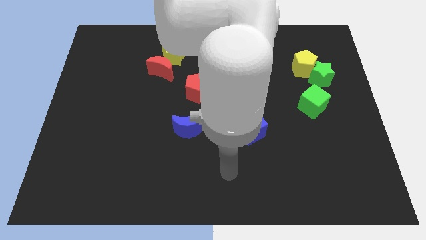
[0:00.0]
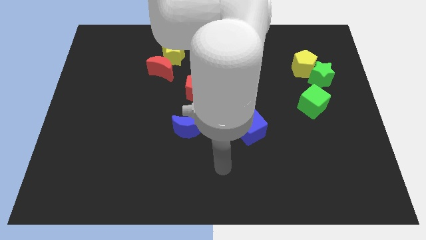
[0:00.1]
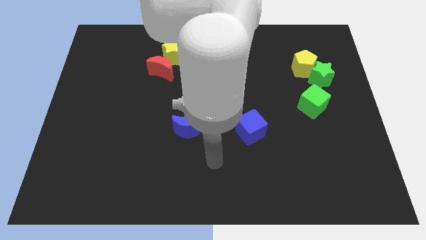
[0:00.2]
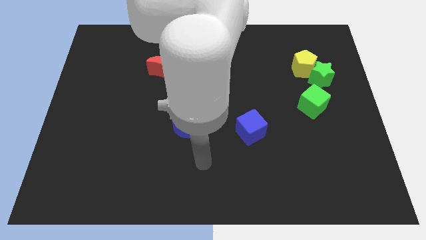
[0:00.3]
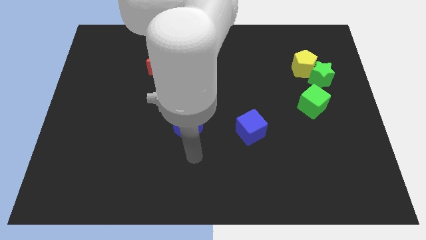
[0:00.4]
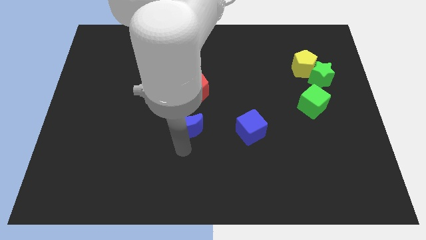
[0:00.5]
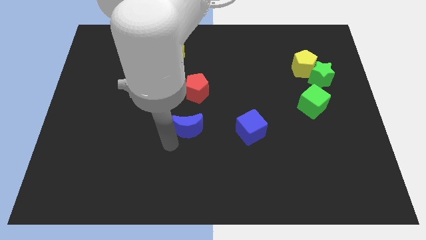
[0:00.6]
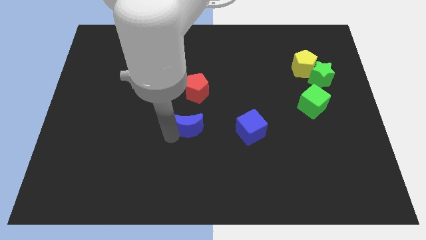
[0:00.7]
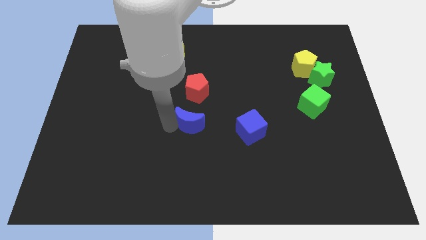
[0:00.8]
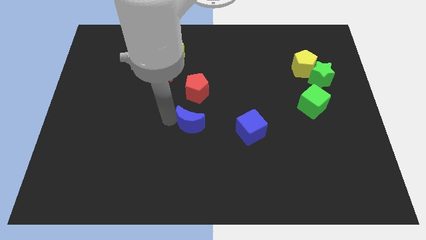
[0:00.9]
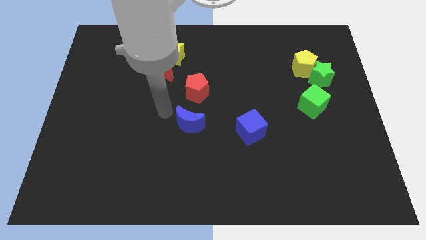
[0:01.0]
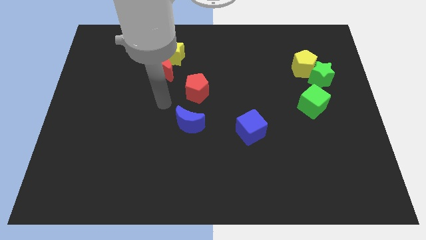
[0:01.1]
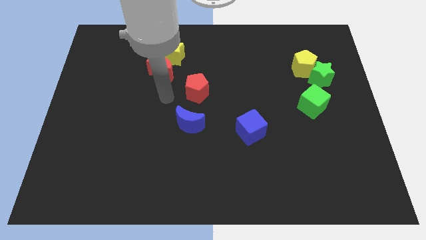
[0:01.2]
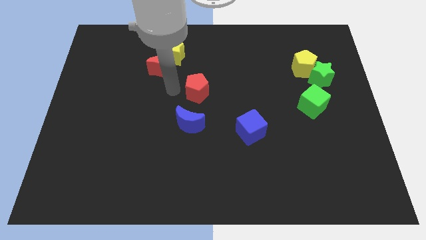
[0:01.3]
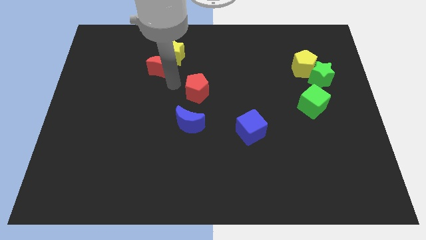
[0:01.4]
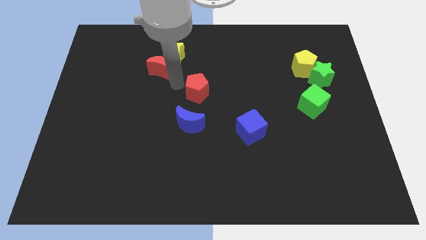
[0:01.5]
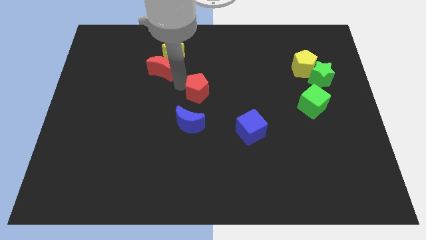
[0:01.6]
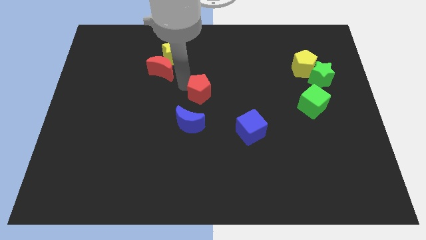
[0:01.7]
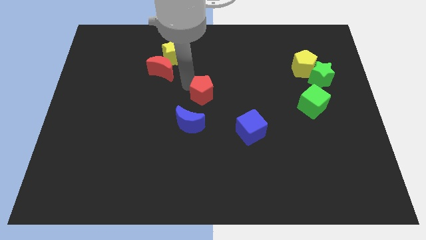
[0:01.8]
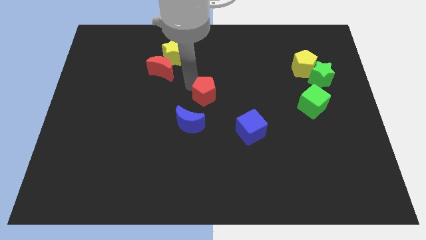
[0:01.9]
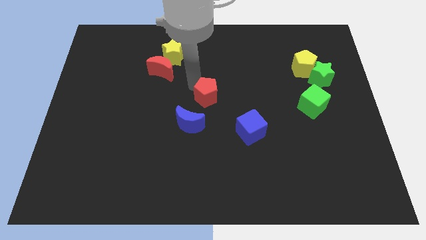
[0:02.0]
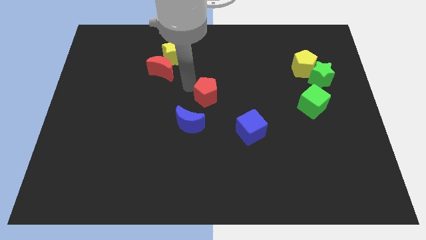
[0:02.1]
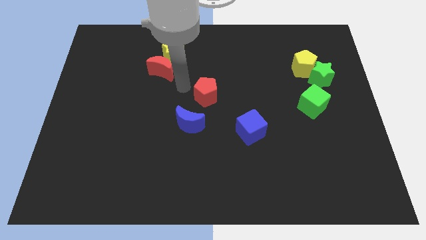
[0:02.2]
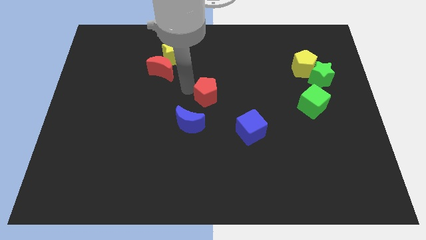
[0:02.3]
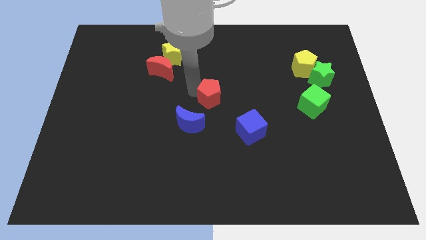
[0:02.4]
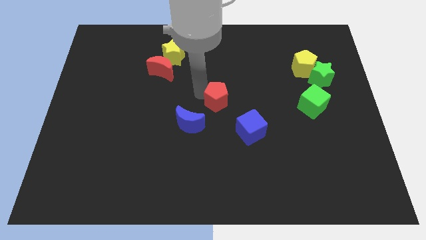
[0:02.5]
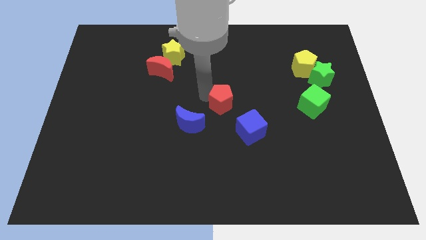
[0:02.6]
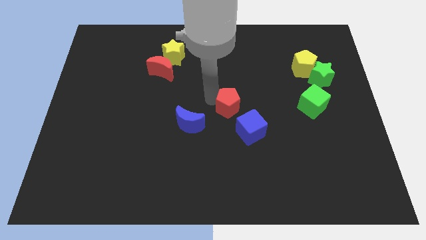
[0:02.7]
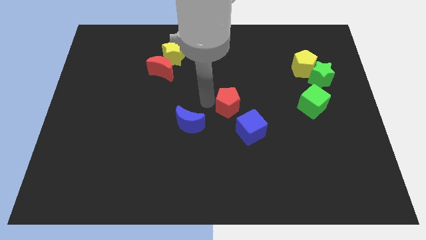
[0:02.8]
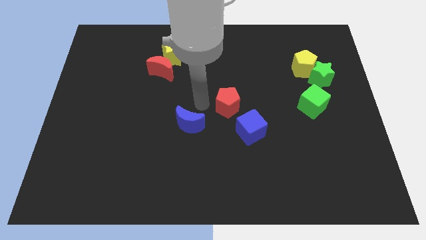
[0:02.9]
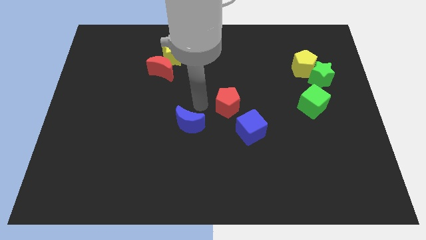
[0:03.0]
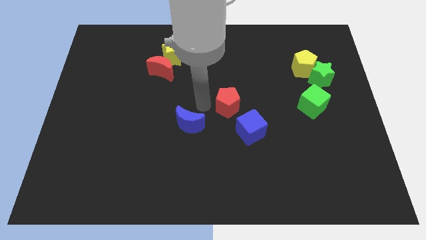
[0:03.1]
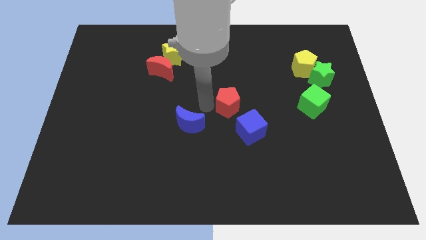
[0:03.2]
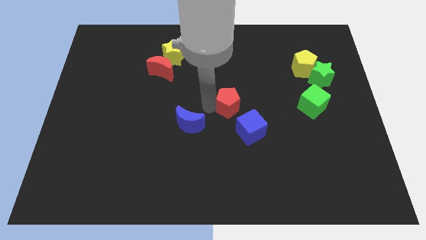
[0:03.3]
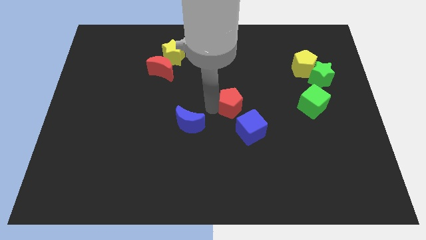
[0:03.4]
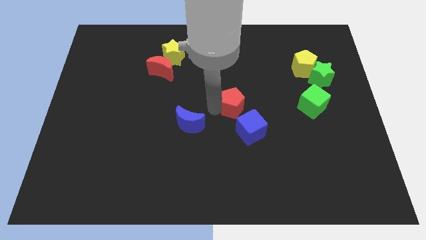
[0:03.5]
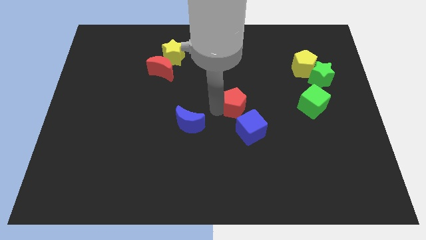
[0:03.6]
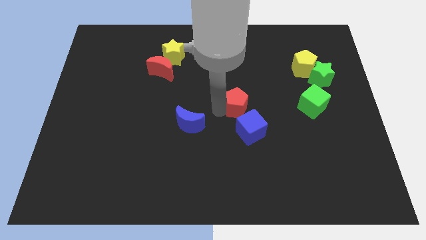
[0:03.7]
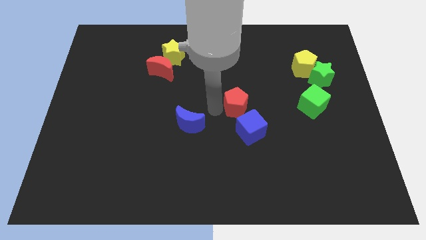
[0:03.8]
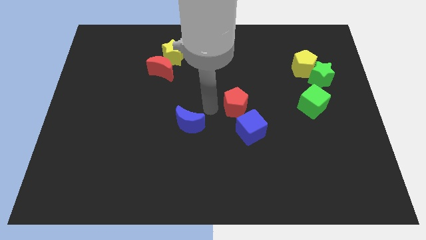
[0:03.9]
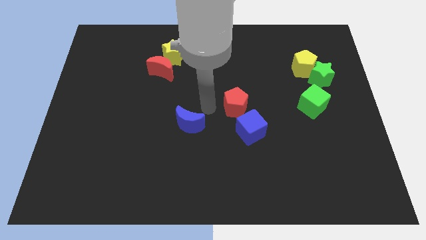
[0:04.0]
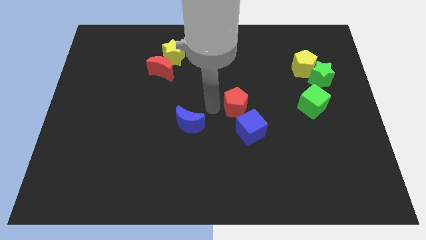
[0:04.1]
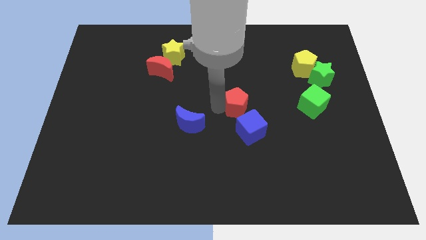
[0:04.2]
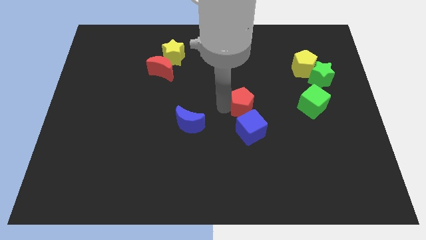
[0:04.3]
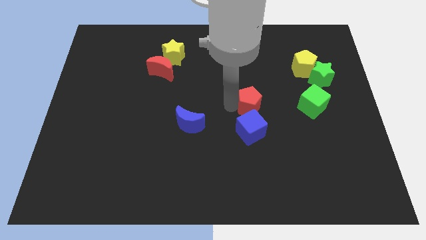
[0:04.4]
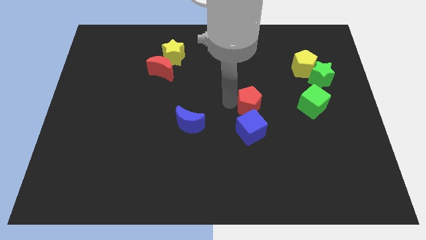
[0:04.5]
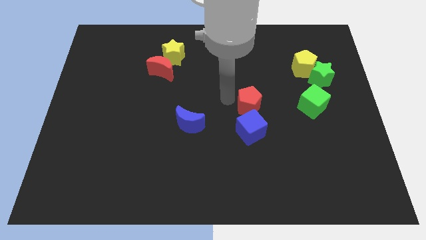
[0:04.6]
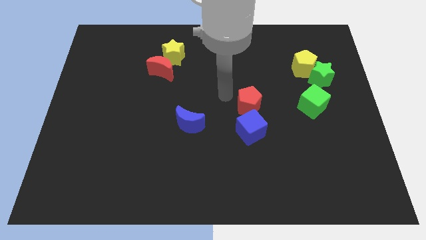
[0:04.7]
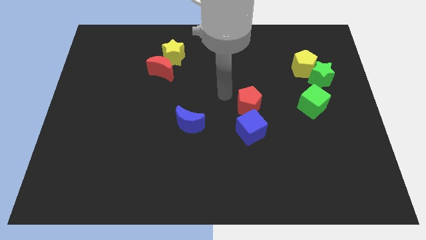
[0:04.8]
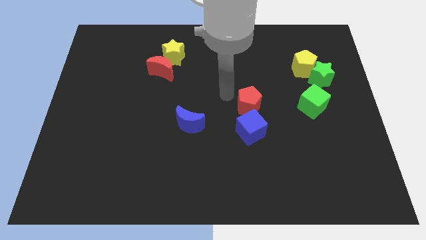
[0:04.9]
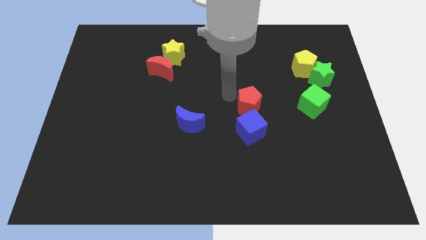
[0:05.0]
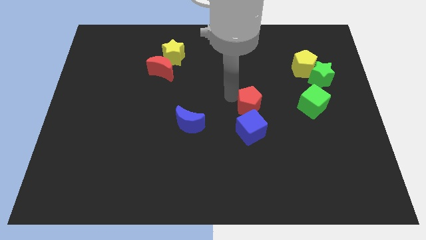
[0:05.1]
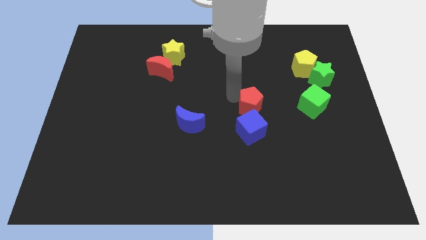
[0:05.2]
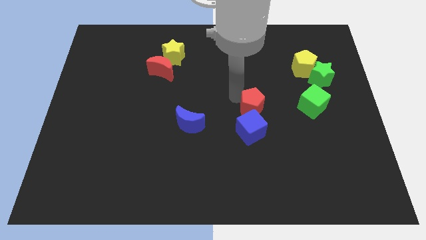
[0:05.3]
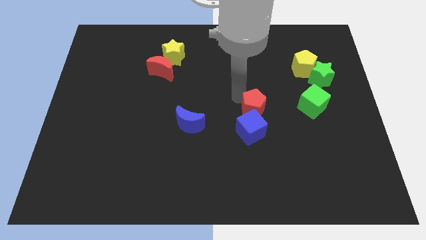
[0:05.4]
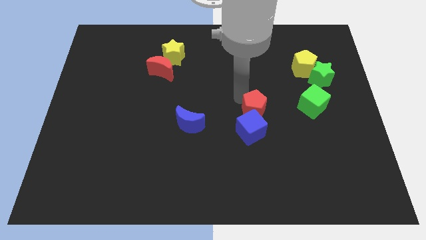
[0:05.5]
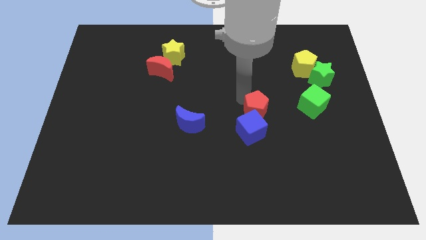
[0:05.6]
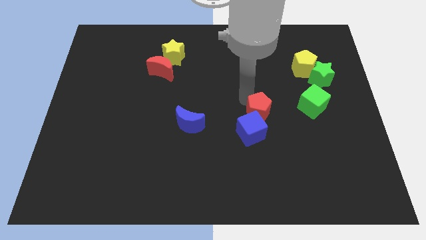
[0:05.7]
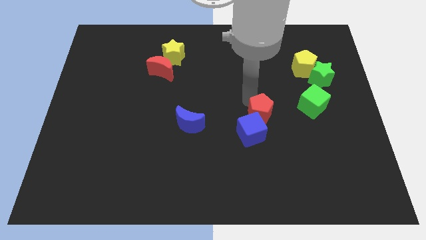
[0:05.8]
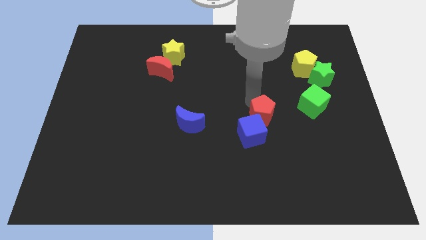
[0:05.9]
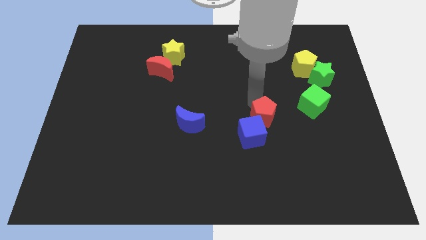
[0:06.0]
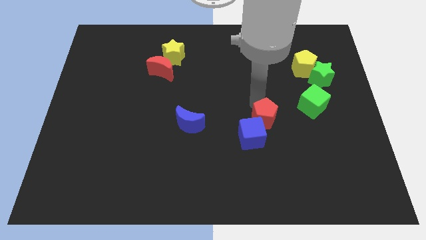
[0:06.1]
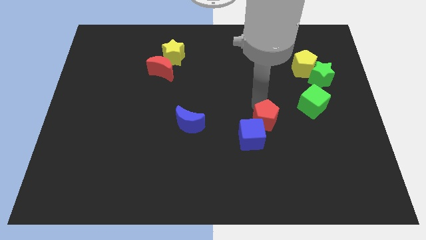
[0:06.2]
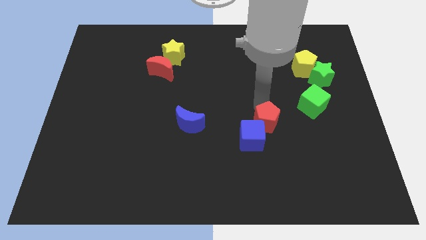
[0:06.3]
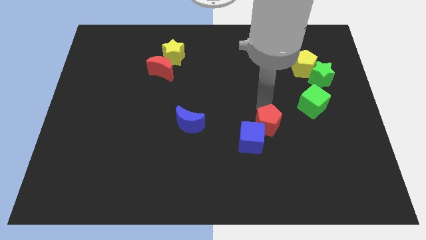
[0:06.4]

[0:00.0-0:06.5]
move the red pentagon to the right side of the blue cube

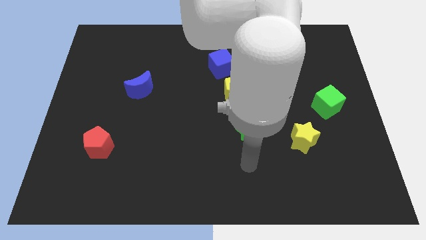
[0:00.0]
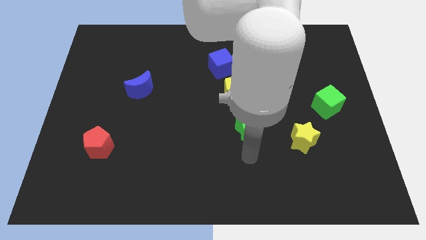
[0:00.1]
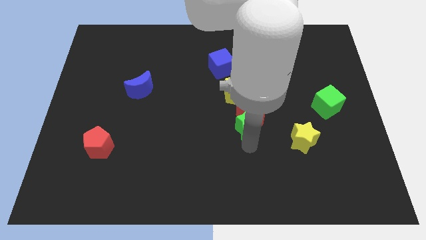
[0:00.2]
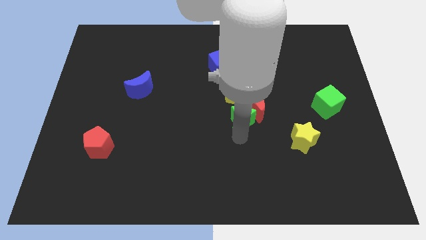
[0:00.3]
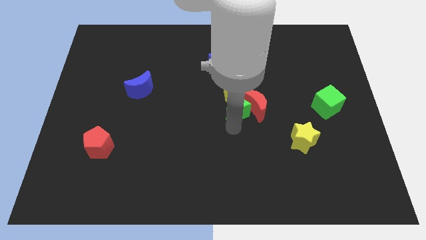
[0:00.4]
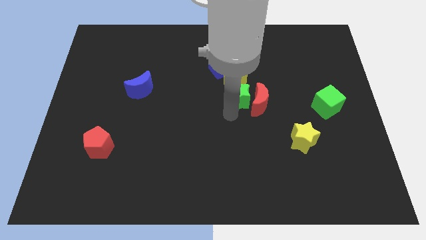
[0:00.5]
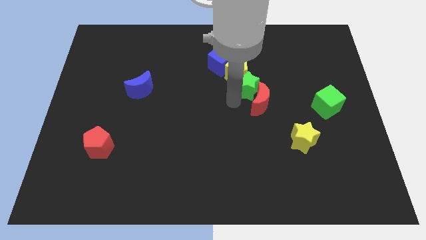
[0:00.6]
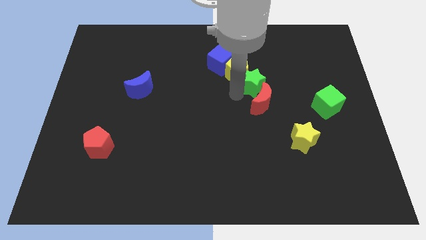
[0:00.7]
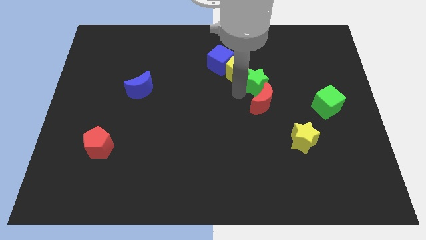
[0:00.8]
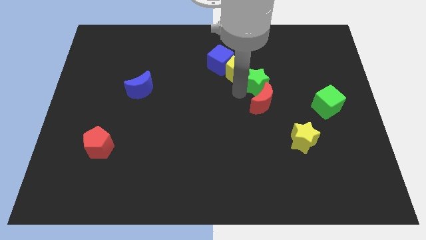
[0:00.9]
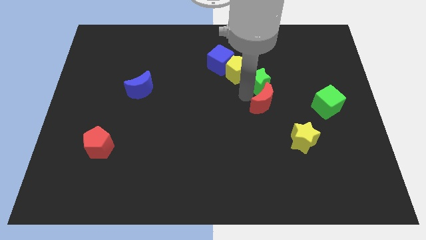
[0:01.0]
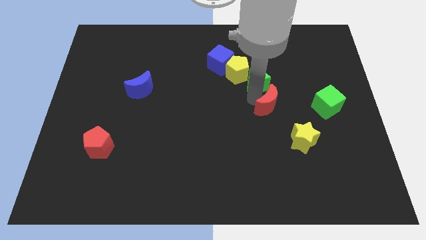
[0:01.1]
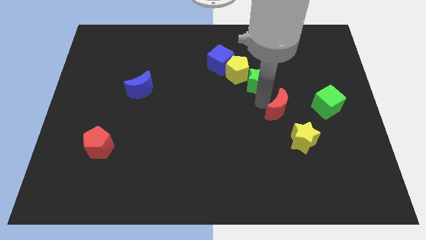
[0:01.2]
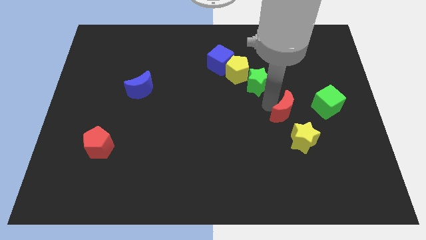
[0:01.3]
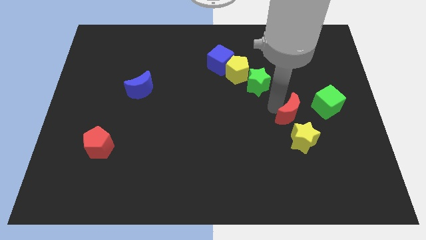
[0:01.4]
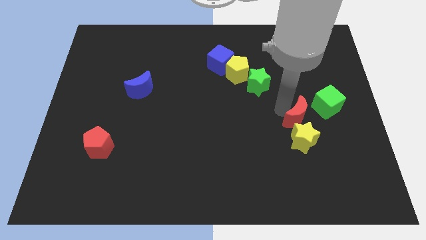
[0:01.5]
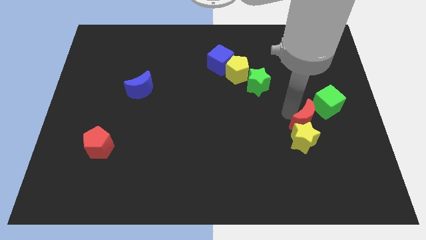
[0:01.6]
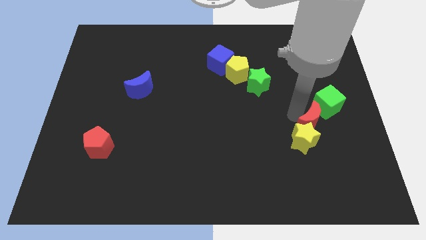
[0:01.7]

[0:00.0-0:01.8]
push the red moon to the bottom of the green cube
